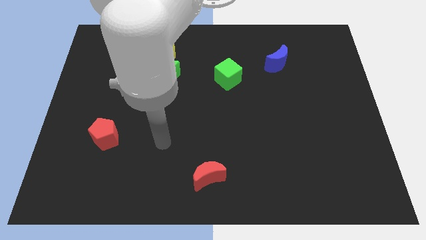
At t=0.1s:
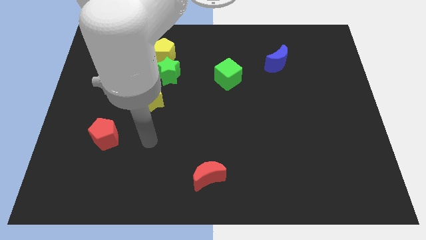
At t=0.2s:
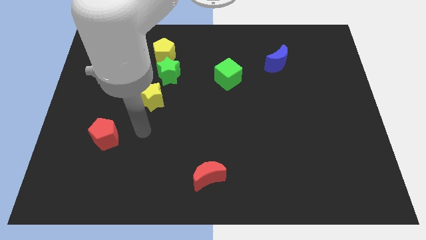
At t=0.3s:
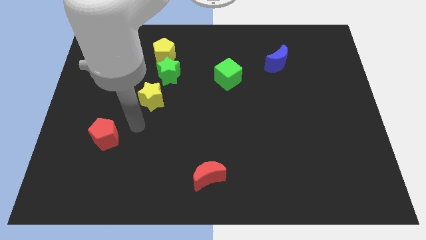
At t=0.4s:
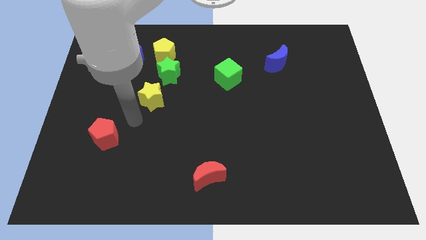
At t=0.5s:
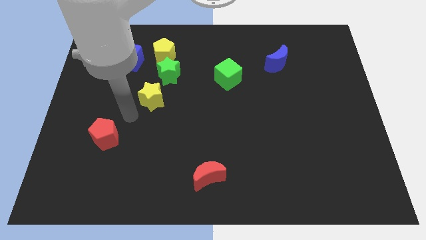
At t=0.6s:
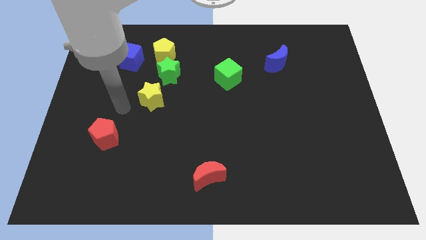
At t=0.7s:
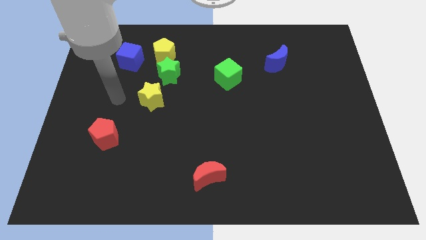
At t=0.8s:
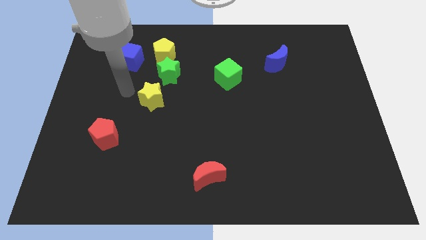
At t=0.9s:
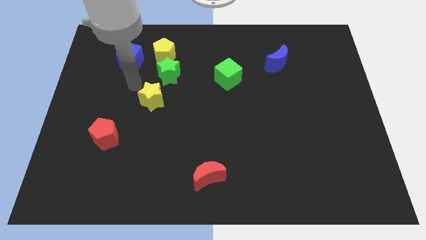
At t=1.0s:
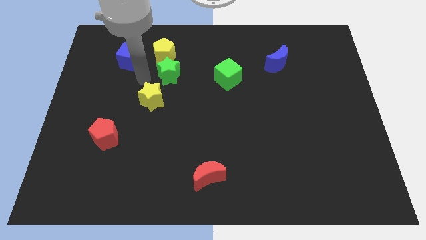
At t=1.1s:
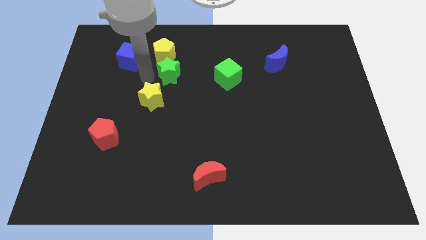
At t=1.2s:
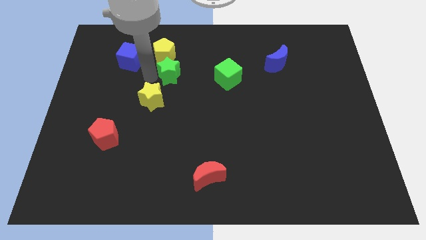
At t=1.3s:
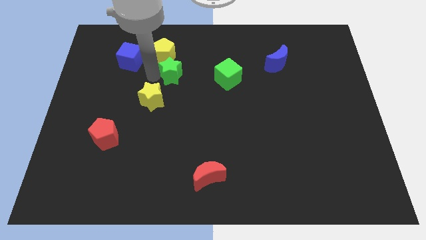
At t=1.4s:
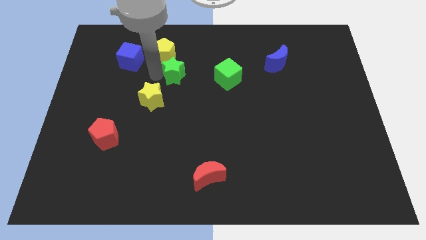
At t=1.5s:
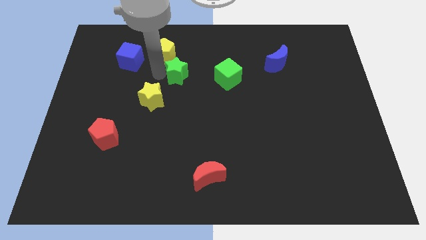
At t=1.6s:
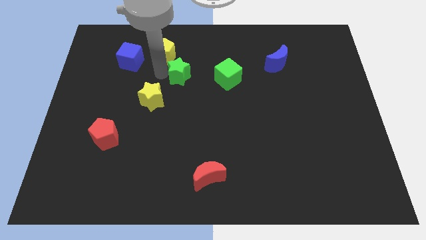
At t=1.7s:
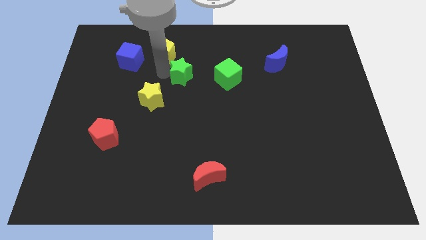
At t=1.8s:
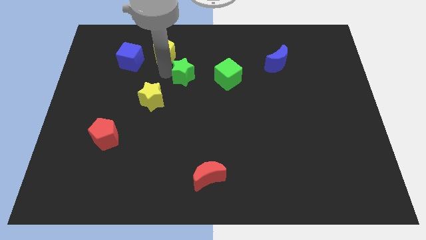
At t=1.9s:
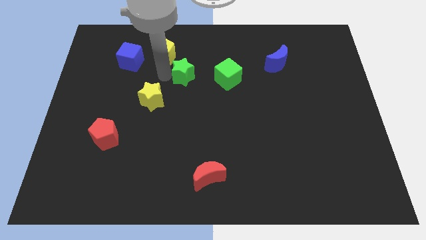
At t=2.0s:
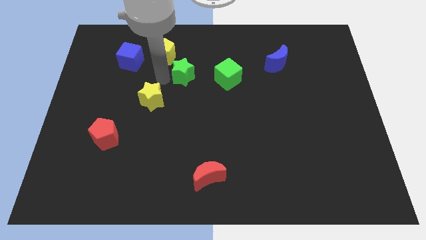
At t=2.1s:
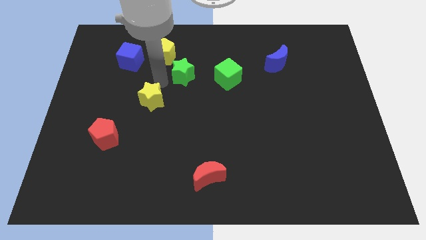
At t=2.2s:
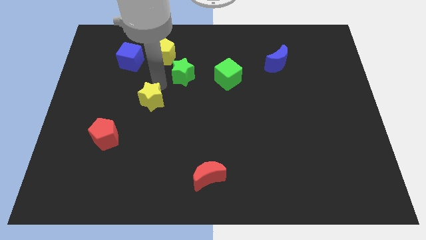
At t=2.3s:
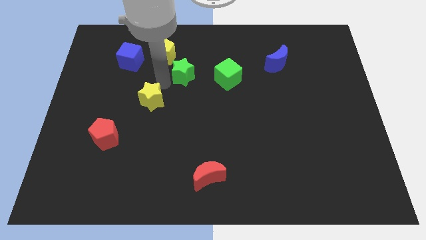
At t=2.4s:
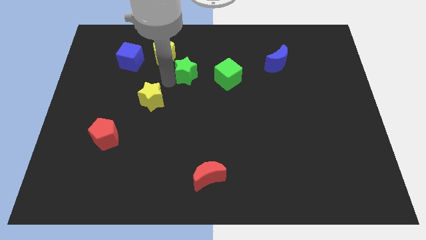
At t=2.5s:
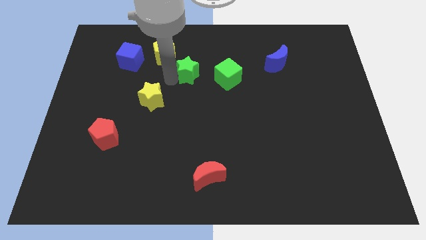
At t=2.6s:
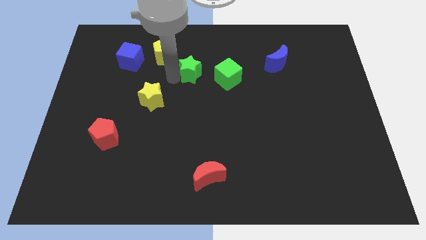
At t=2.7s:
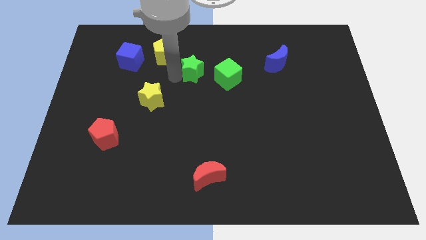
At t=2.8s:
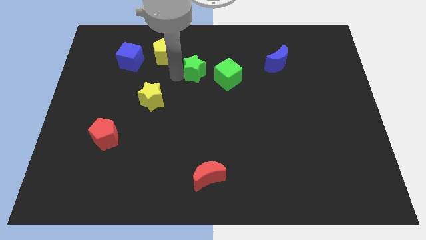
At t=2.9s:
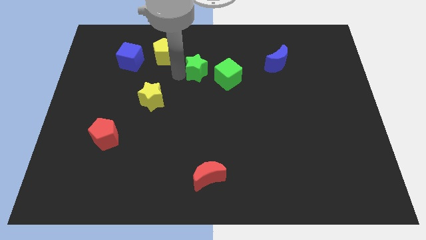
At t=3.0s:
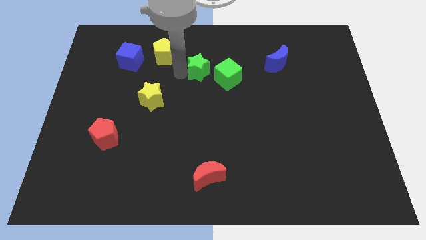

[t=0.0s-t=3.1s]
pull the green star apart from the yellow pentagon and yellow star

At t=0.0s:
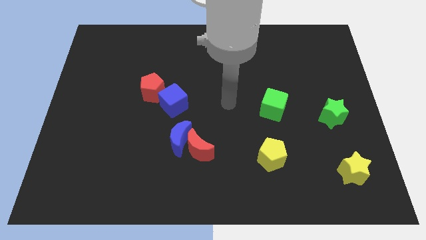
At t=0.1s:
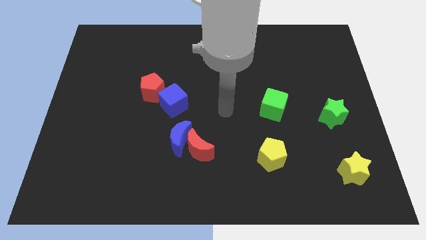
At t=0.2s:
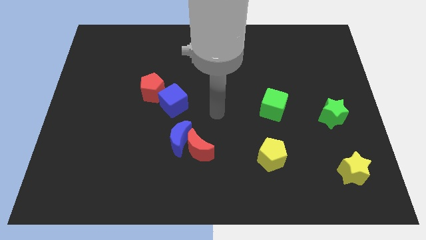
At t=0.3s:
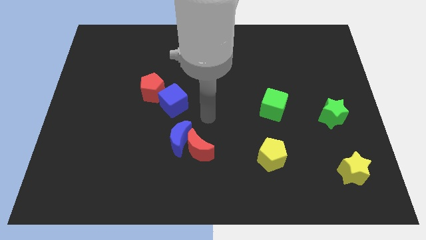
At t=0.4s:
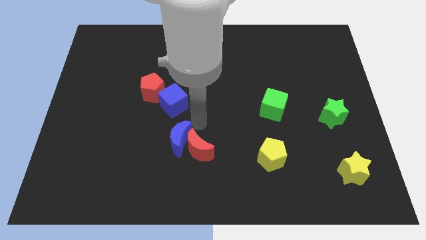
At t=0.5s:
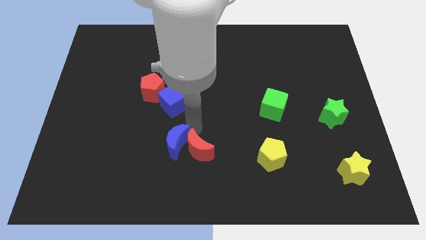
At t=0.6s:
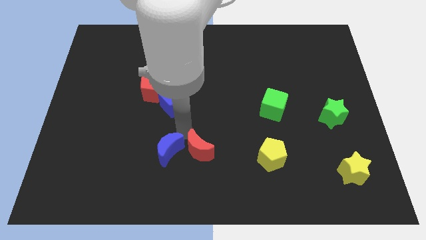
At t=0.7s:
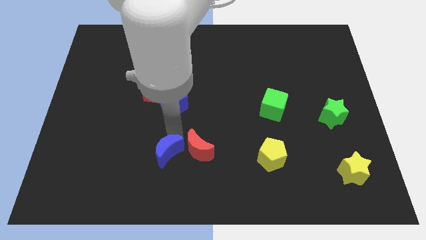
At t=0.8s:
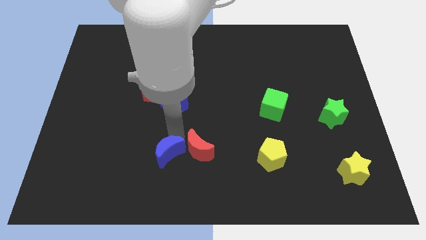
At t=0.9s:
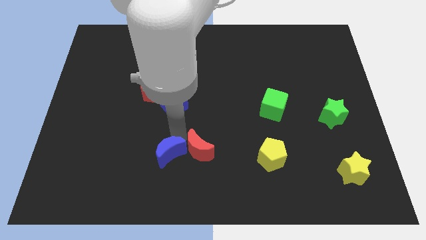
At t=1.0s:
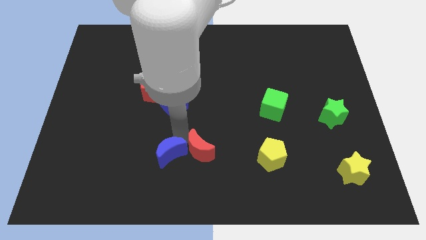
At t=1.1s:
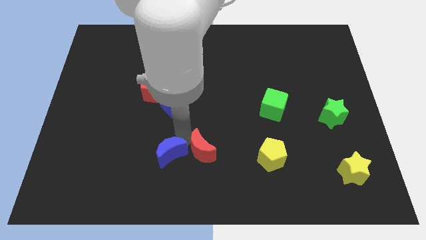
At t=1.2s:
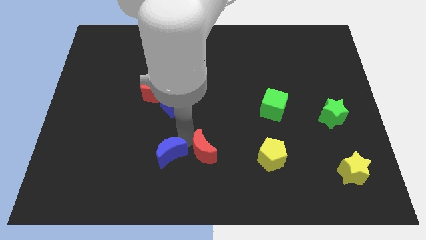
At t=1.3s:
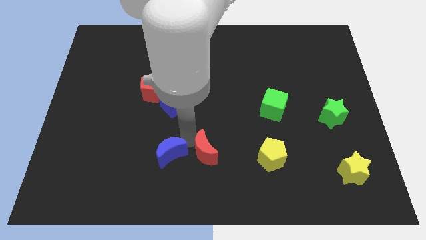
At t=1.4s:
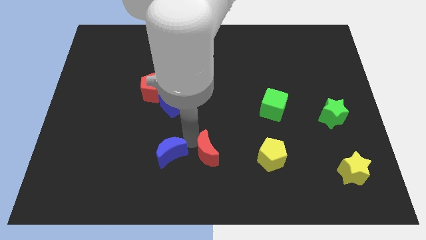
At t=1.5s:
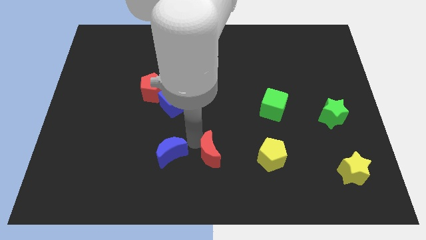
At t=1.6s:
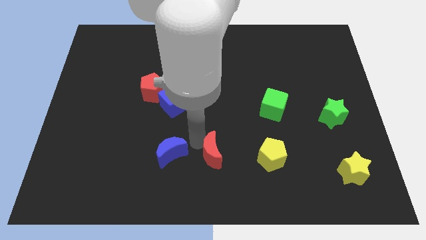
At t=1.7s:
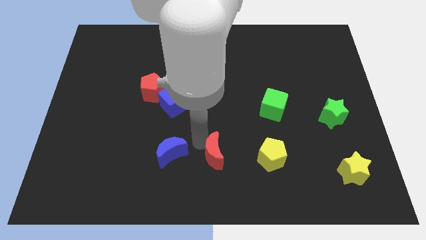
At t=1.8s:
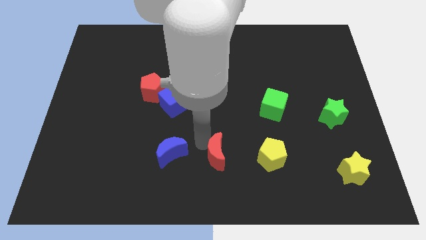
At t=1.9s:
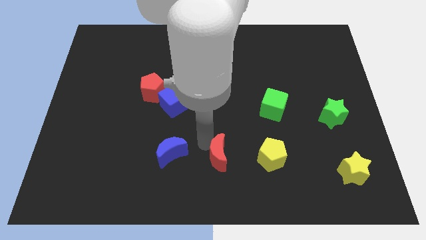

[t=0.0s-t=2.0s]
move the red moon away from the blue moon

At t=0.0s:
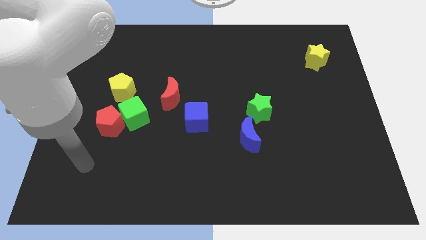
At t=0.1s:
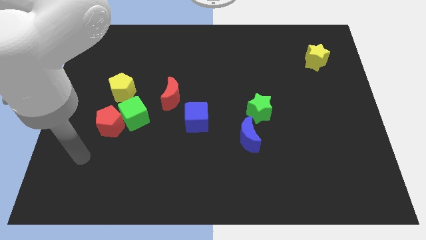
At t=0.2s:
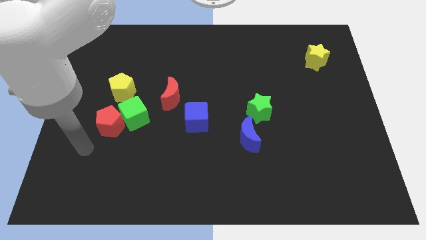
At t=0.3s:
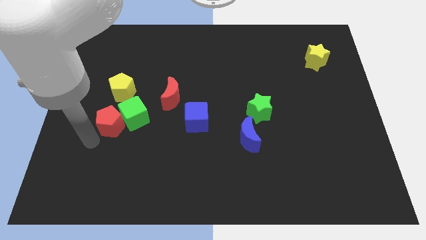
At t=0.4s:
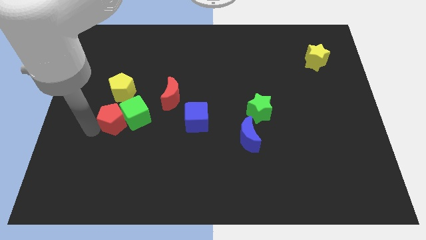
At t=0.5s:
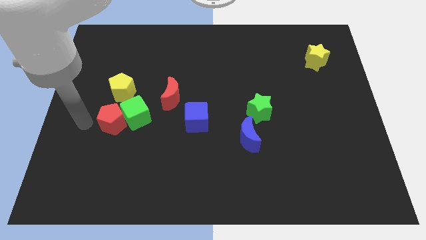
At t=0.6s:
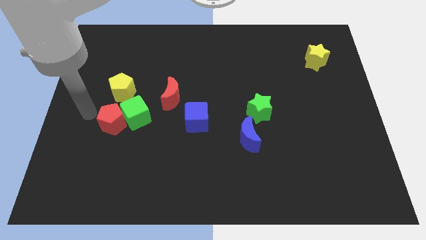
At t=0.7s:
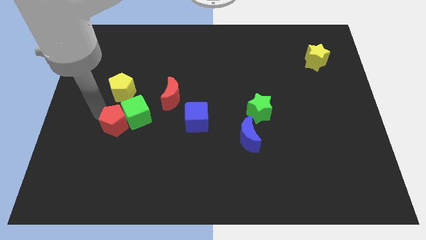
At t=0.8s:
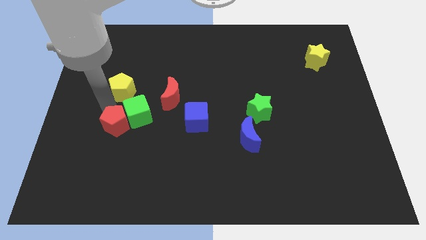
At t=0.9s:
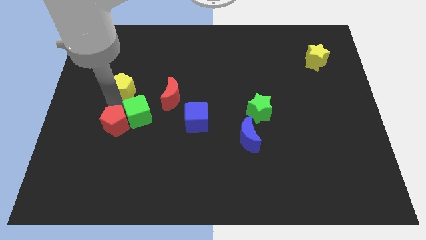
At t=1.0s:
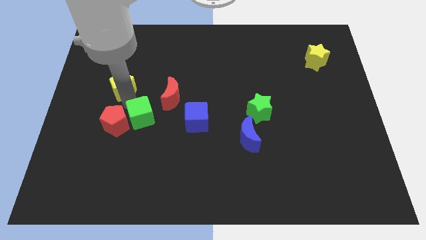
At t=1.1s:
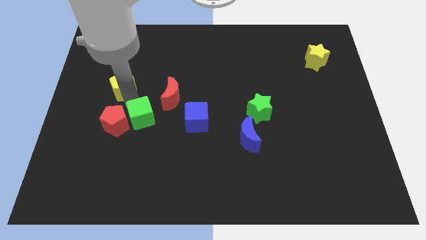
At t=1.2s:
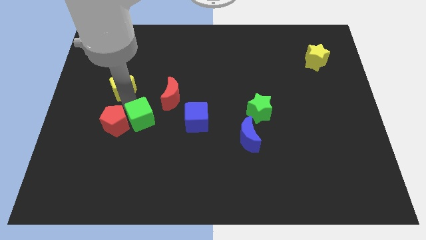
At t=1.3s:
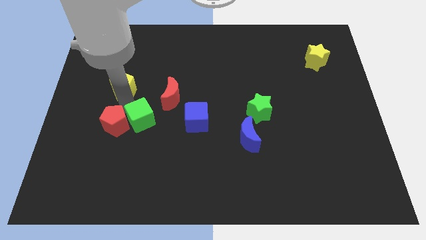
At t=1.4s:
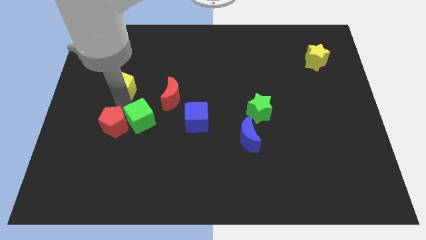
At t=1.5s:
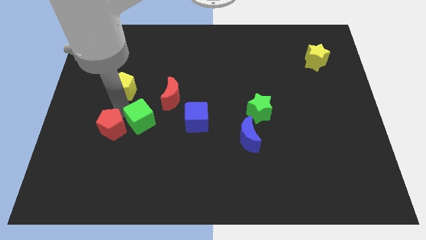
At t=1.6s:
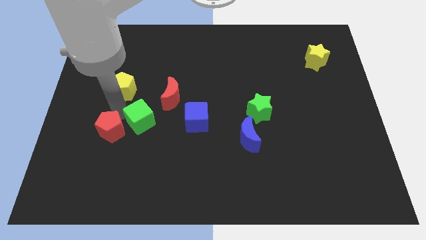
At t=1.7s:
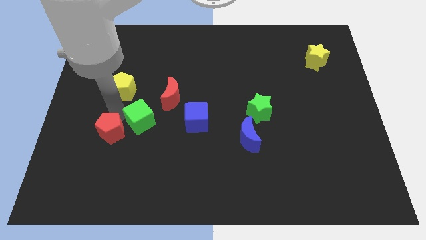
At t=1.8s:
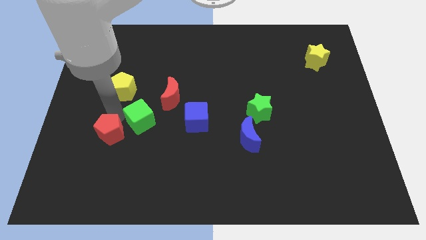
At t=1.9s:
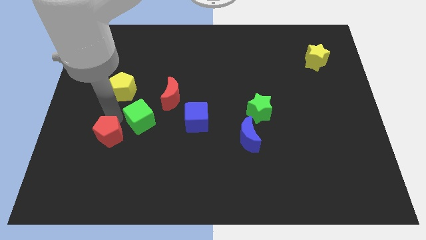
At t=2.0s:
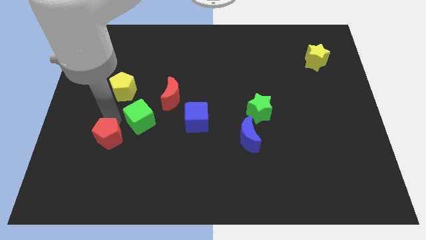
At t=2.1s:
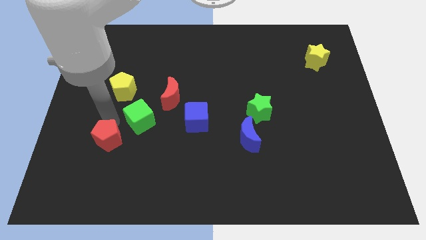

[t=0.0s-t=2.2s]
move the red pentagon away from the green cube and yellow pentagon

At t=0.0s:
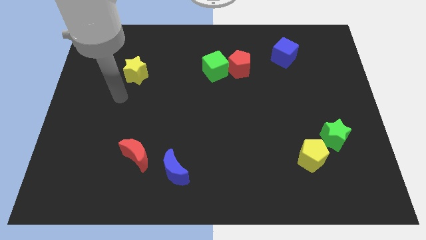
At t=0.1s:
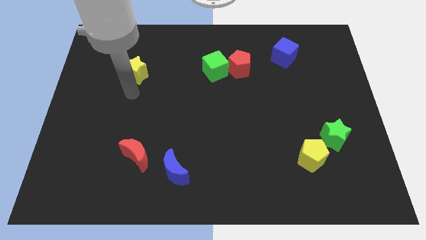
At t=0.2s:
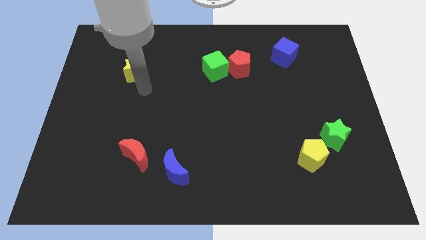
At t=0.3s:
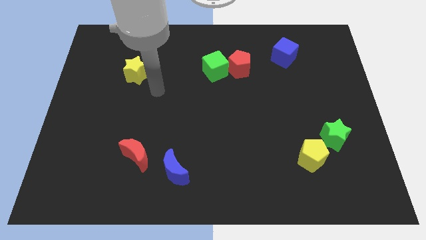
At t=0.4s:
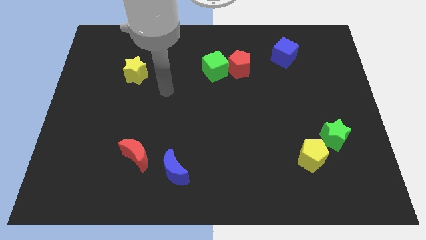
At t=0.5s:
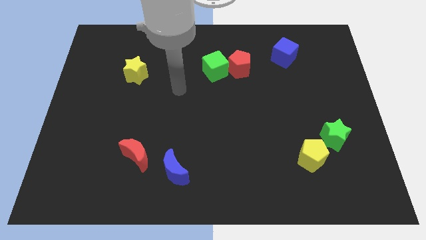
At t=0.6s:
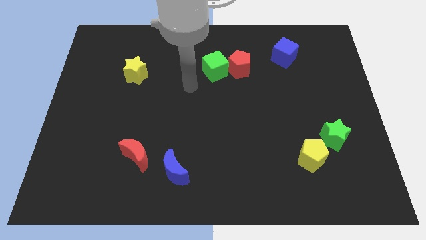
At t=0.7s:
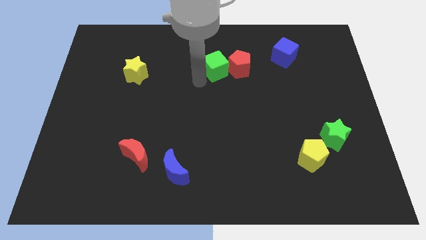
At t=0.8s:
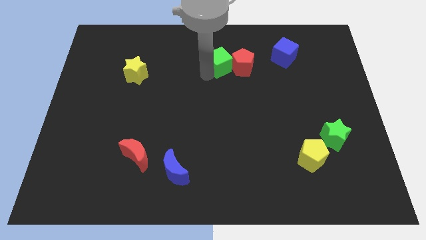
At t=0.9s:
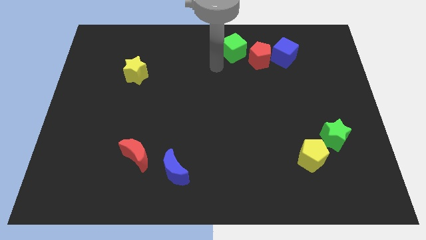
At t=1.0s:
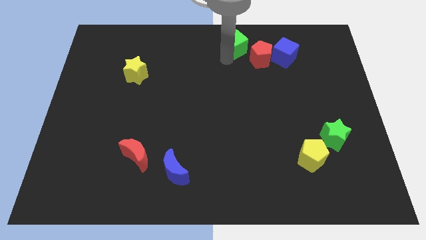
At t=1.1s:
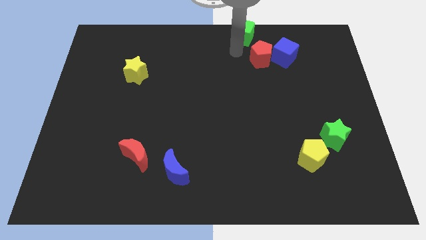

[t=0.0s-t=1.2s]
pull the red pentagon apart from the green cube

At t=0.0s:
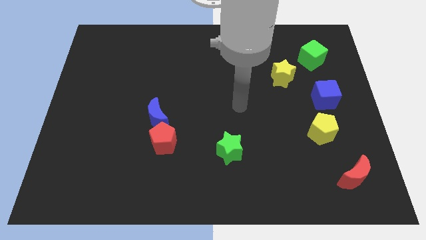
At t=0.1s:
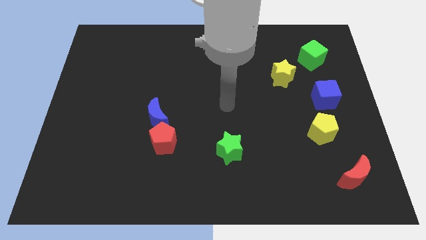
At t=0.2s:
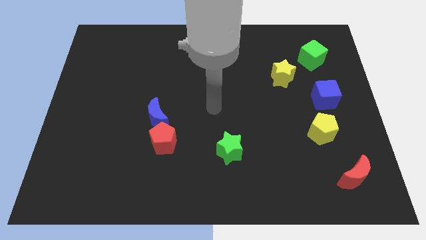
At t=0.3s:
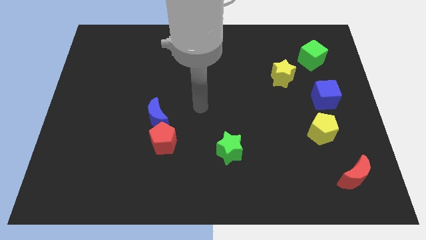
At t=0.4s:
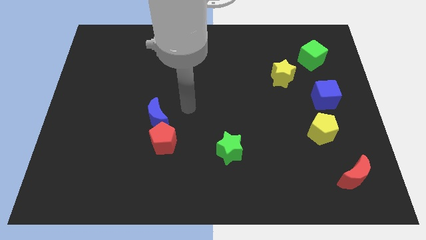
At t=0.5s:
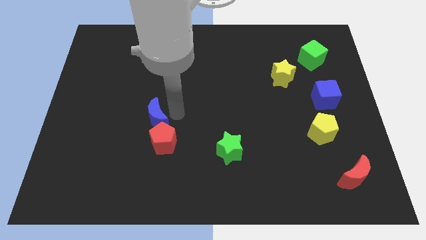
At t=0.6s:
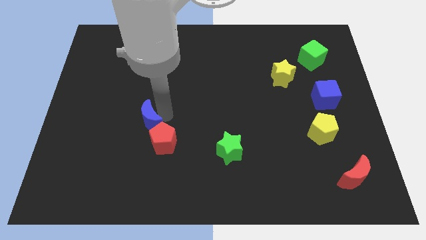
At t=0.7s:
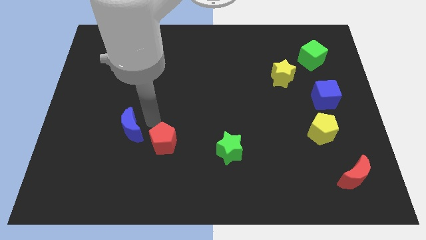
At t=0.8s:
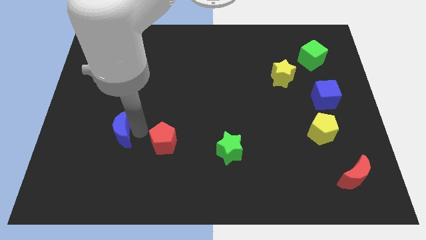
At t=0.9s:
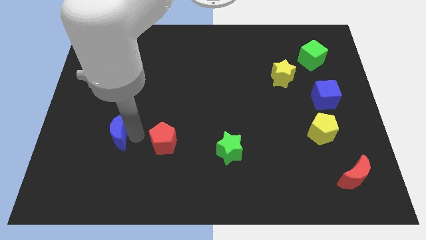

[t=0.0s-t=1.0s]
pull the red pentagon apart from the blue moon

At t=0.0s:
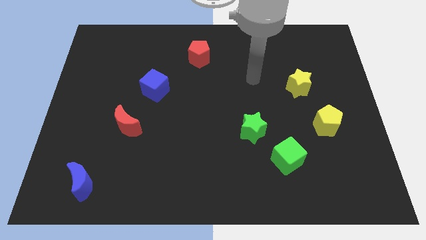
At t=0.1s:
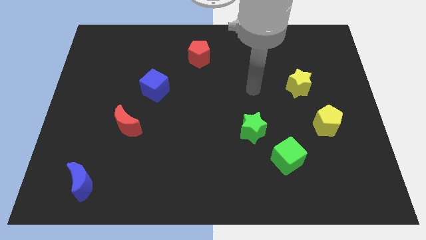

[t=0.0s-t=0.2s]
move the green cube away from the green star
